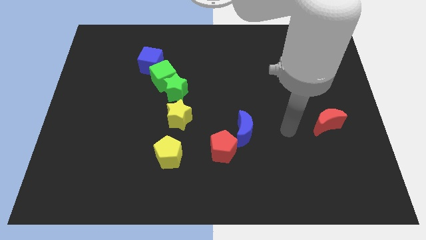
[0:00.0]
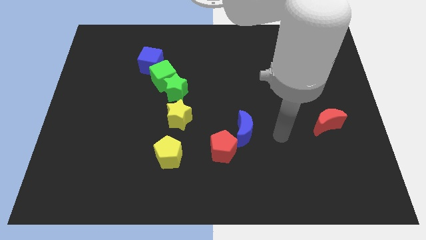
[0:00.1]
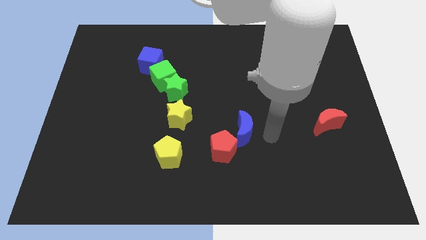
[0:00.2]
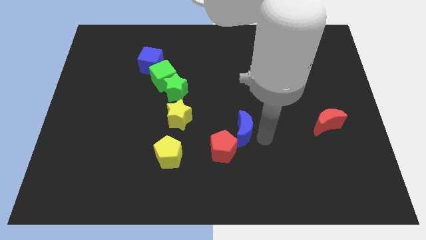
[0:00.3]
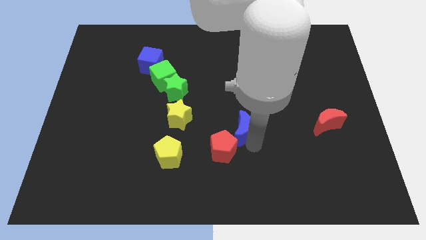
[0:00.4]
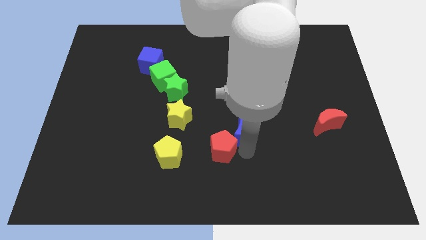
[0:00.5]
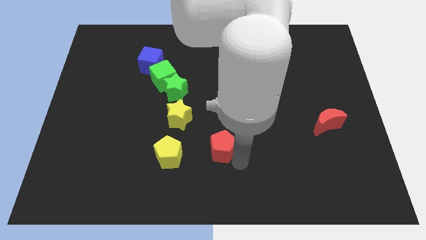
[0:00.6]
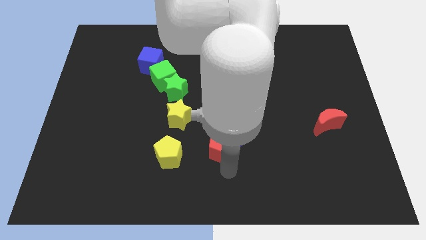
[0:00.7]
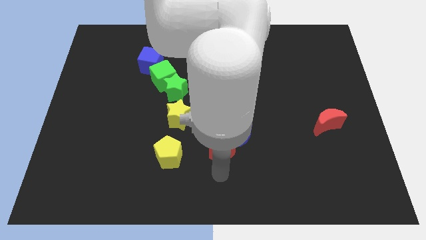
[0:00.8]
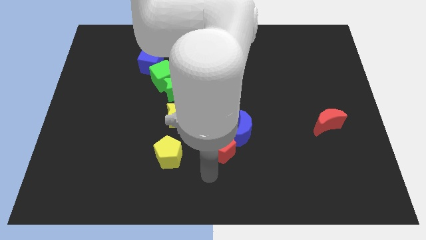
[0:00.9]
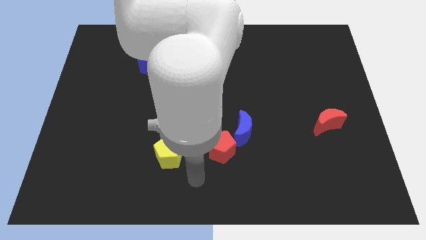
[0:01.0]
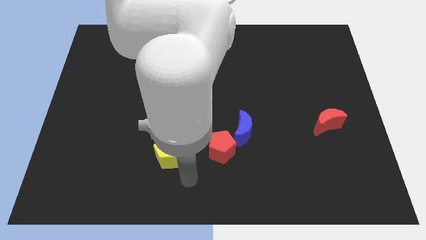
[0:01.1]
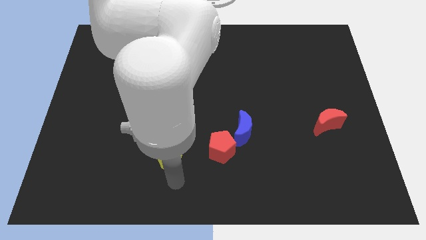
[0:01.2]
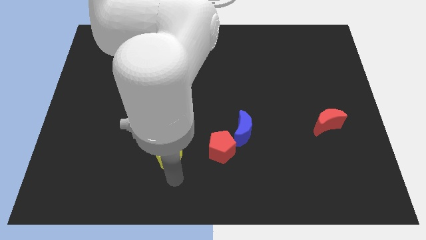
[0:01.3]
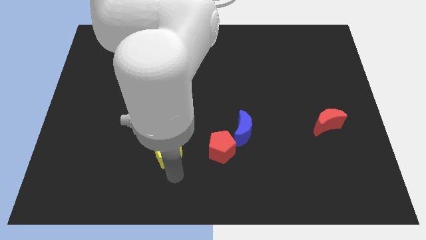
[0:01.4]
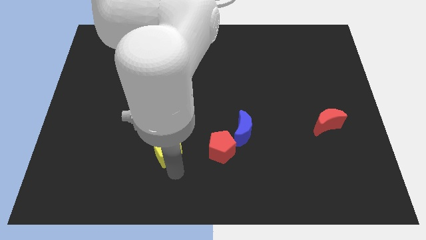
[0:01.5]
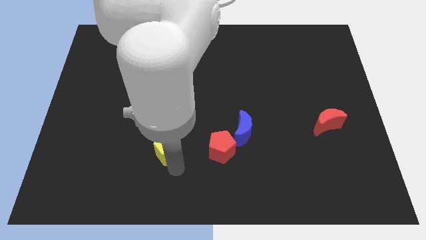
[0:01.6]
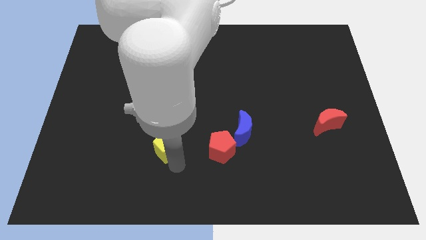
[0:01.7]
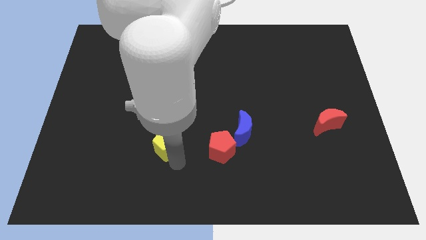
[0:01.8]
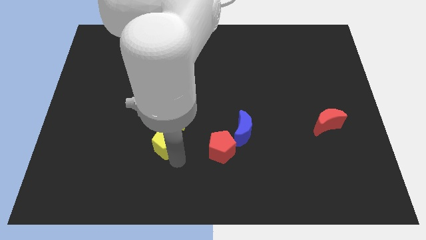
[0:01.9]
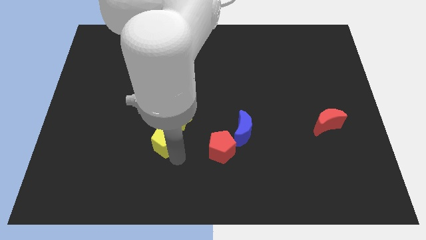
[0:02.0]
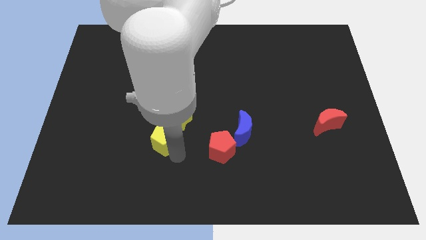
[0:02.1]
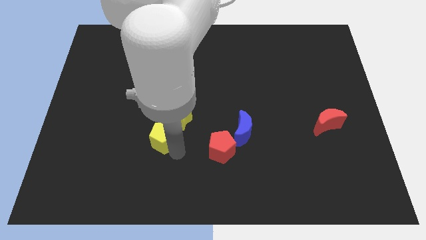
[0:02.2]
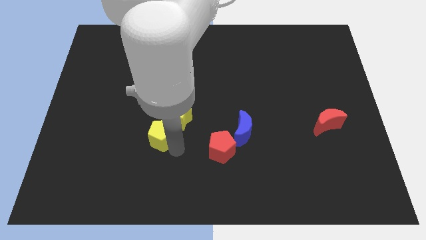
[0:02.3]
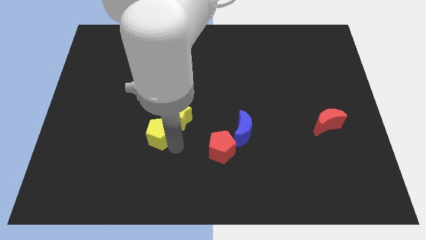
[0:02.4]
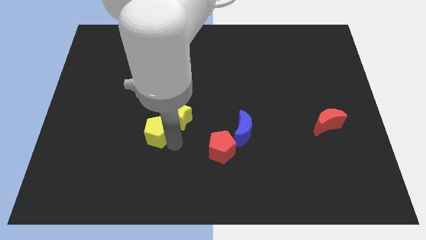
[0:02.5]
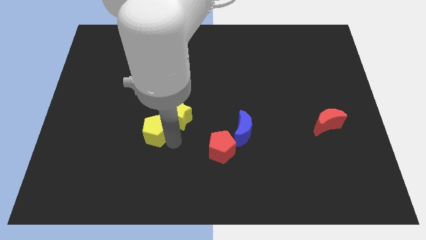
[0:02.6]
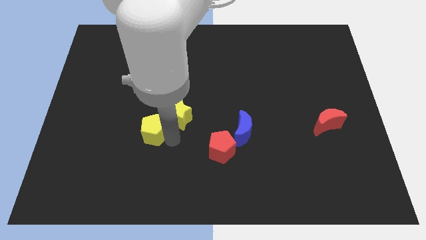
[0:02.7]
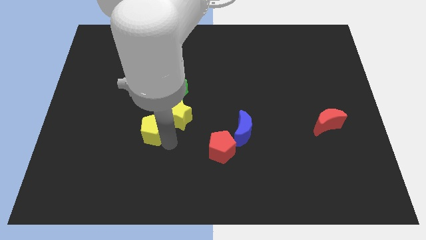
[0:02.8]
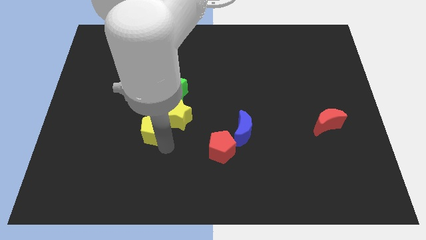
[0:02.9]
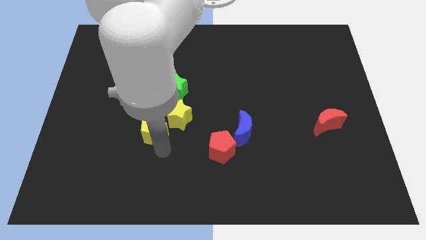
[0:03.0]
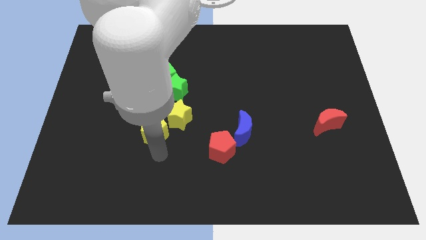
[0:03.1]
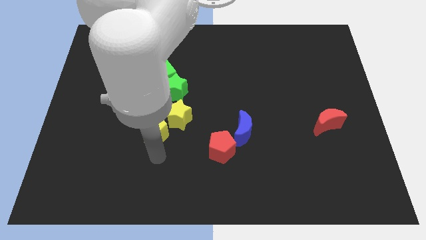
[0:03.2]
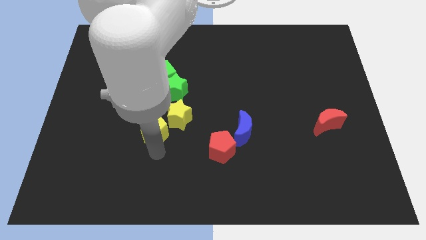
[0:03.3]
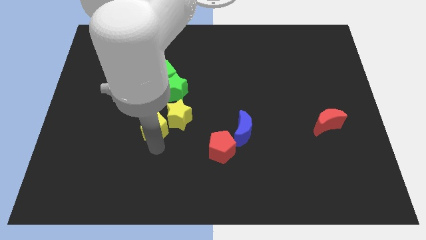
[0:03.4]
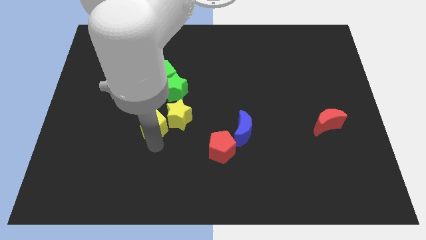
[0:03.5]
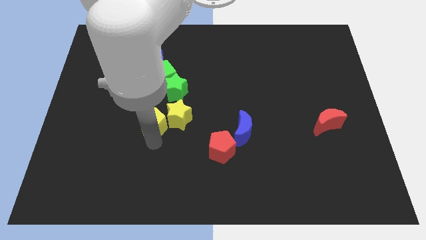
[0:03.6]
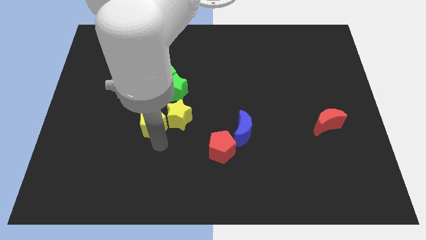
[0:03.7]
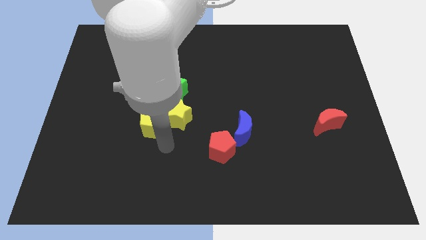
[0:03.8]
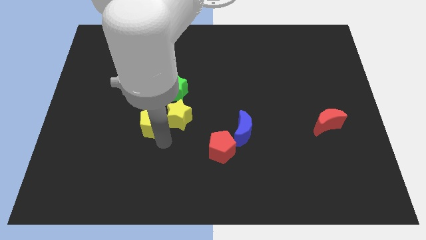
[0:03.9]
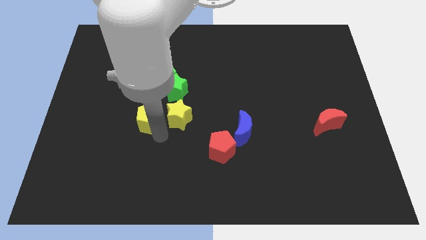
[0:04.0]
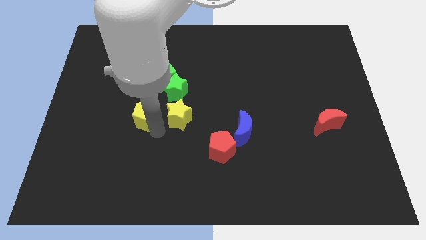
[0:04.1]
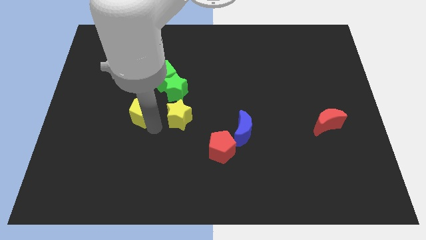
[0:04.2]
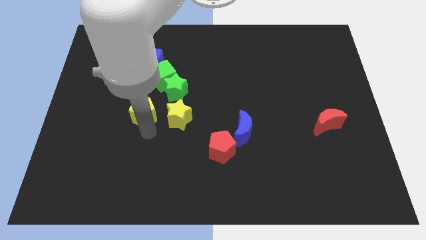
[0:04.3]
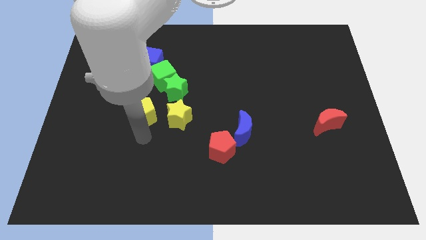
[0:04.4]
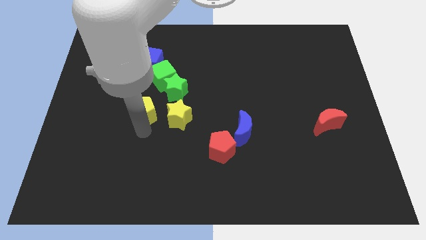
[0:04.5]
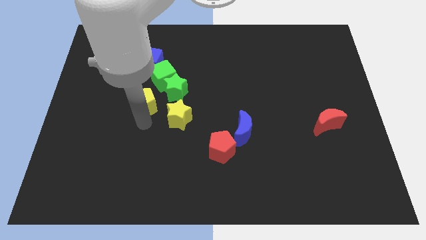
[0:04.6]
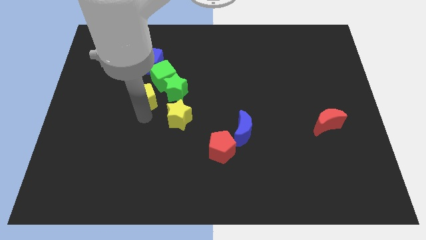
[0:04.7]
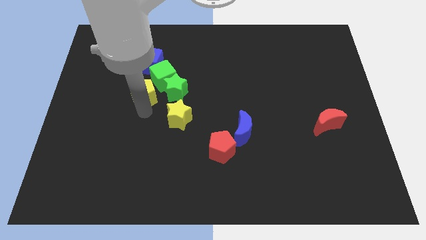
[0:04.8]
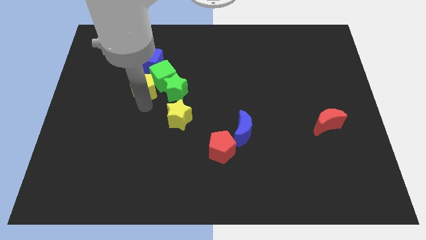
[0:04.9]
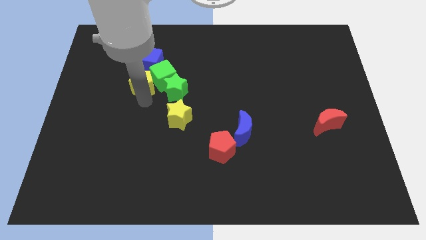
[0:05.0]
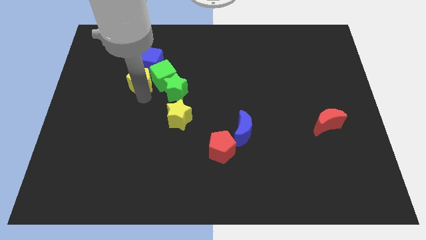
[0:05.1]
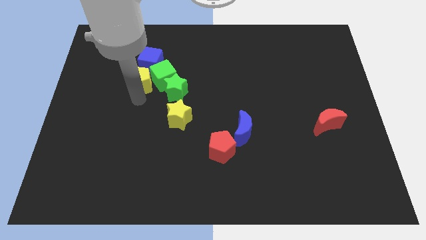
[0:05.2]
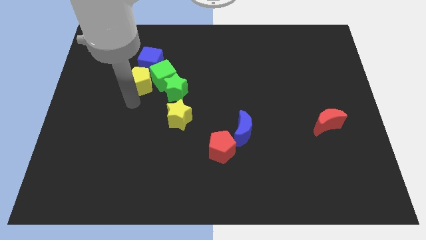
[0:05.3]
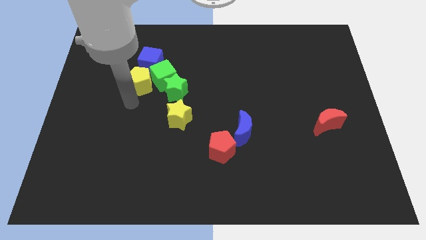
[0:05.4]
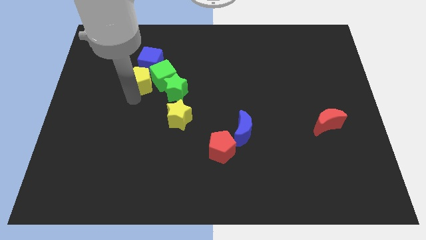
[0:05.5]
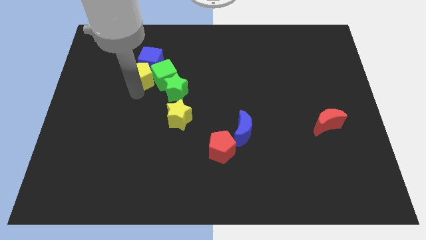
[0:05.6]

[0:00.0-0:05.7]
put the yellow pentagon towards the blue cube

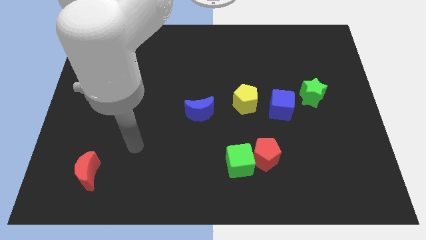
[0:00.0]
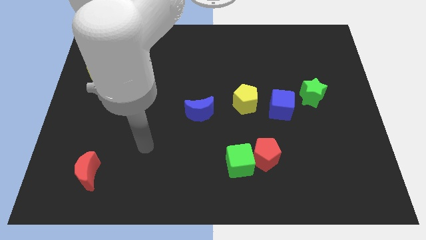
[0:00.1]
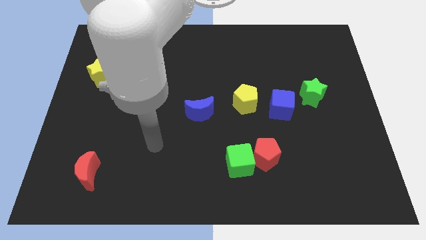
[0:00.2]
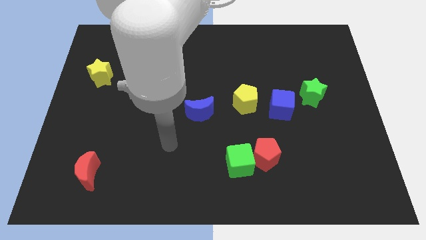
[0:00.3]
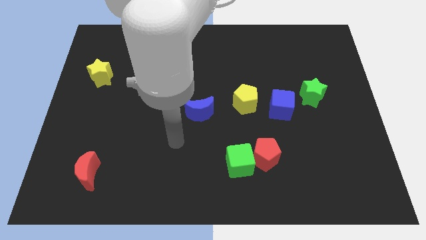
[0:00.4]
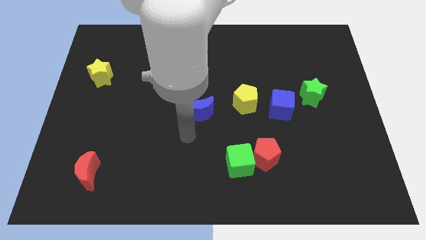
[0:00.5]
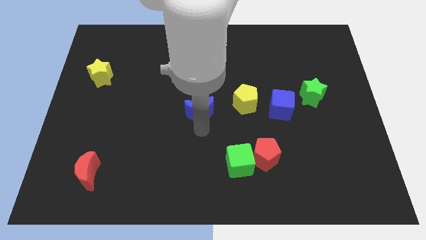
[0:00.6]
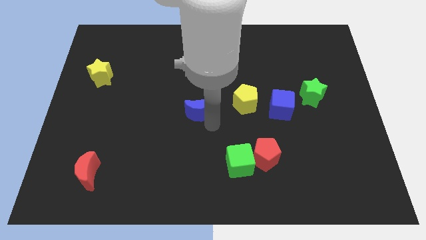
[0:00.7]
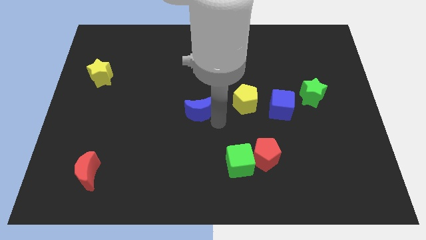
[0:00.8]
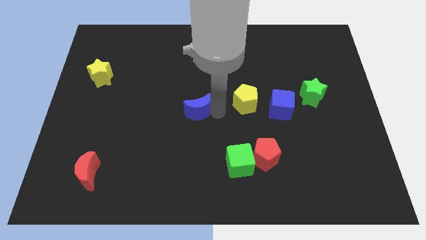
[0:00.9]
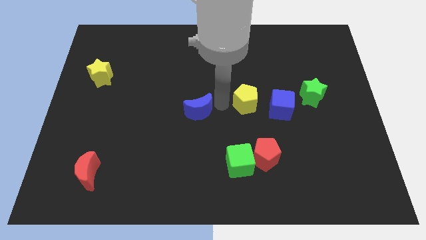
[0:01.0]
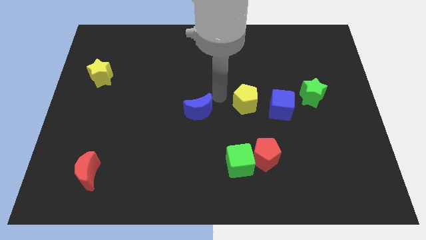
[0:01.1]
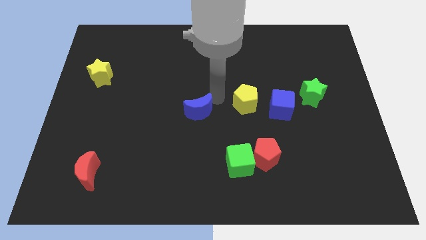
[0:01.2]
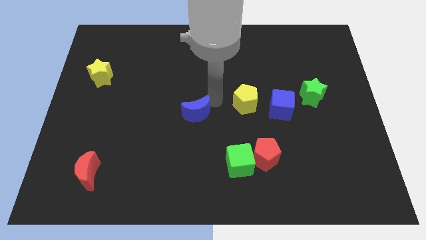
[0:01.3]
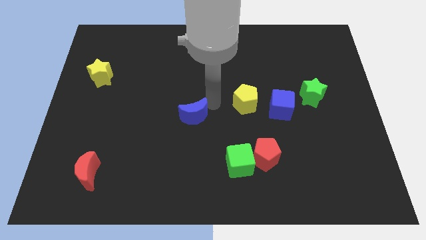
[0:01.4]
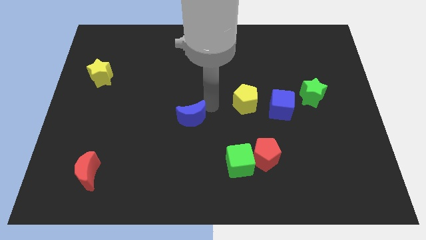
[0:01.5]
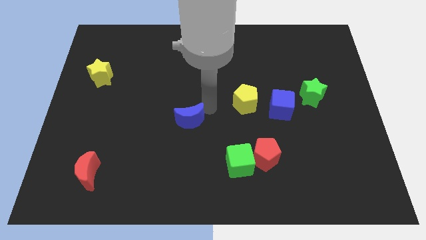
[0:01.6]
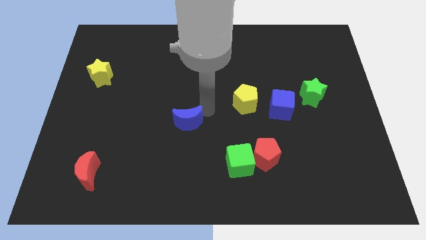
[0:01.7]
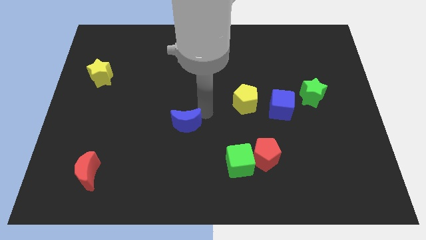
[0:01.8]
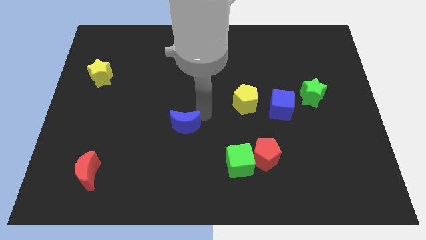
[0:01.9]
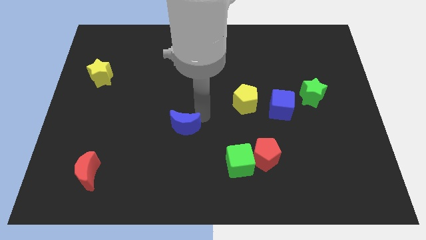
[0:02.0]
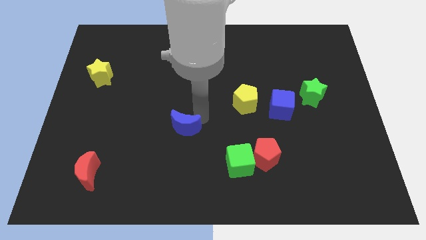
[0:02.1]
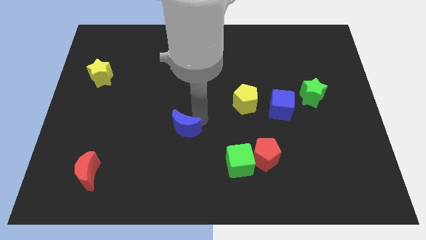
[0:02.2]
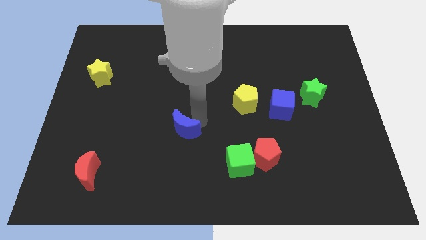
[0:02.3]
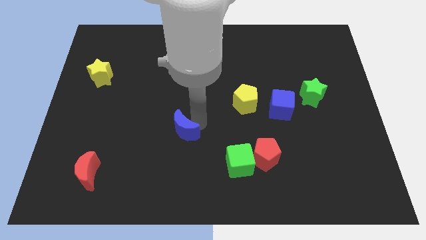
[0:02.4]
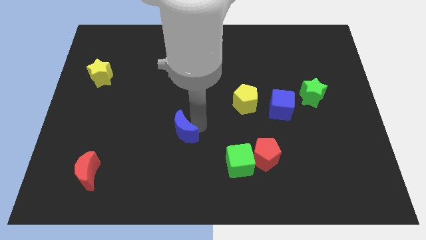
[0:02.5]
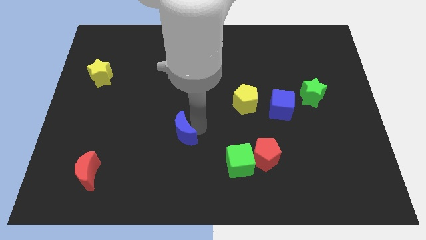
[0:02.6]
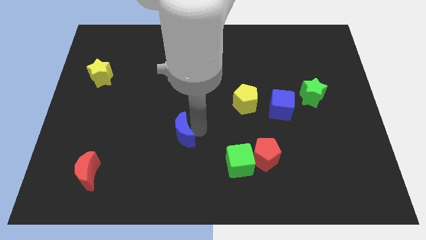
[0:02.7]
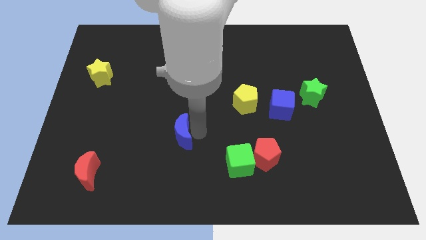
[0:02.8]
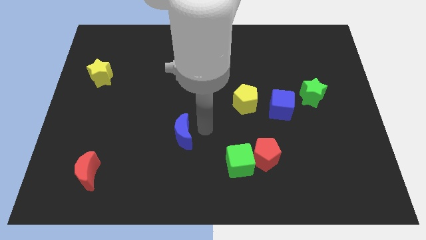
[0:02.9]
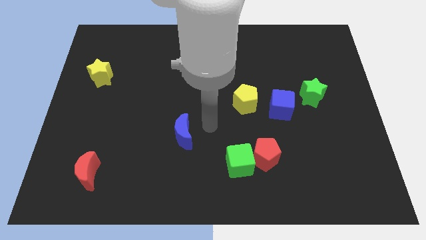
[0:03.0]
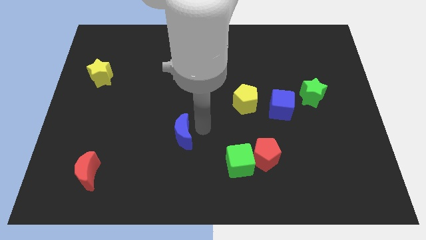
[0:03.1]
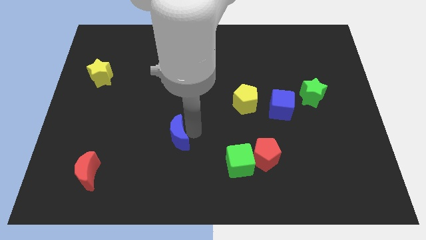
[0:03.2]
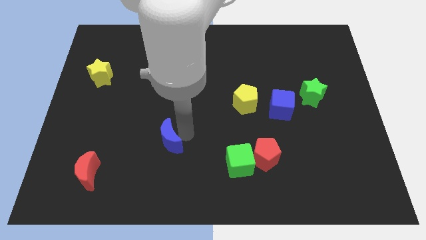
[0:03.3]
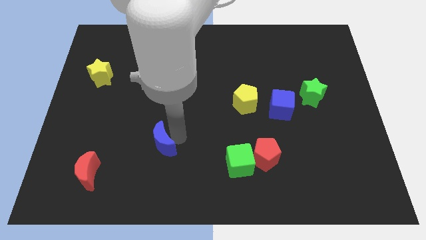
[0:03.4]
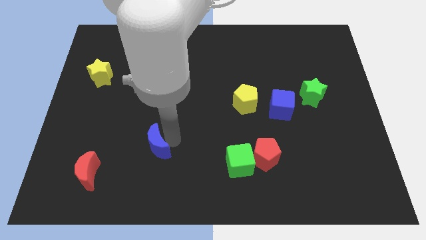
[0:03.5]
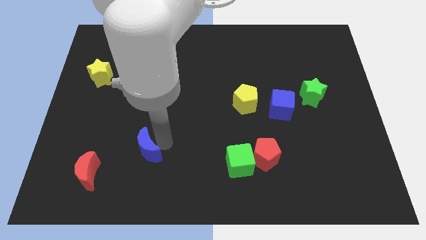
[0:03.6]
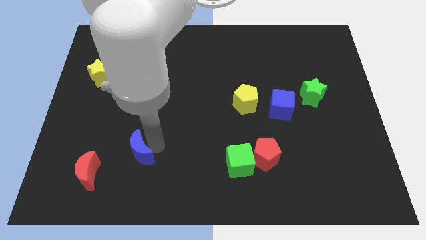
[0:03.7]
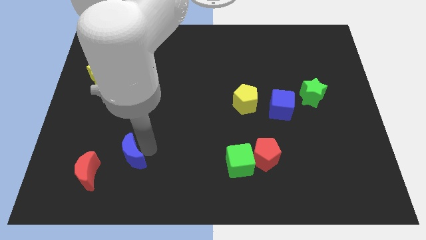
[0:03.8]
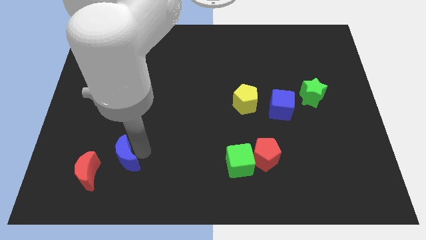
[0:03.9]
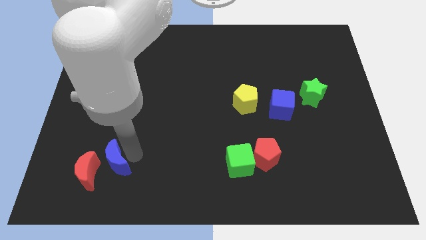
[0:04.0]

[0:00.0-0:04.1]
move the blue moon to the red moon
